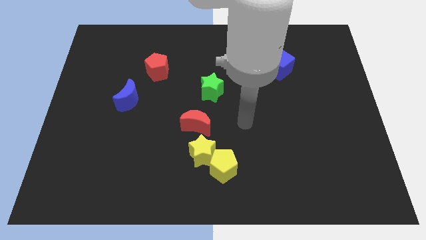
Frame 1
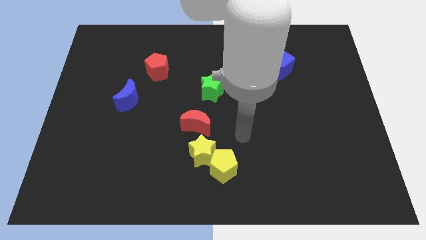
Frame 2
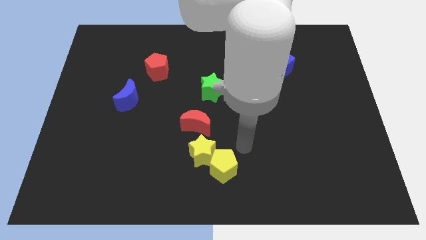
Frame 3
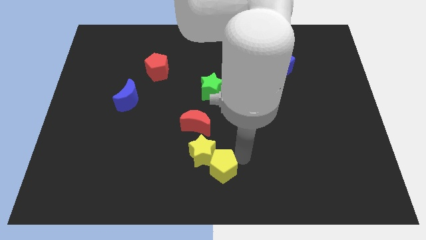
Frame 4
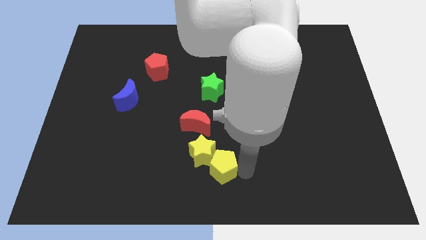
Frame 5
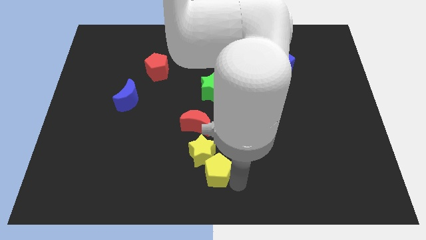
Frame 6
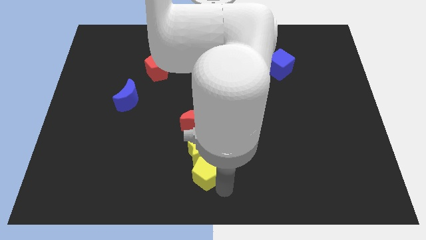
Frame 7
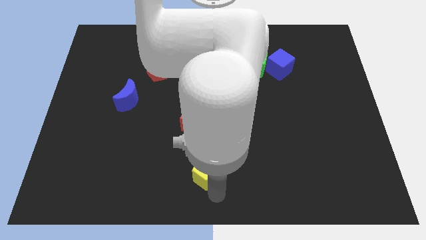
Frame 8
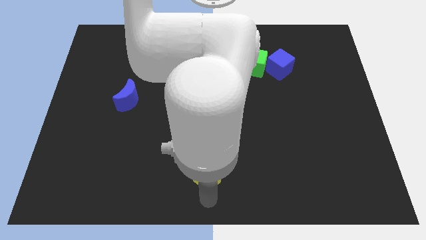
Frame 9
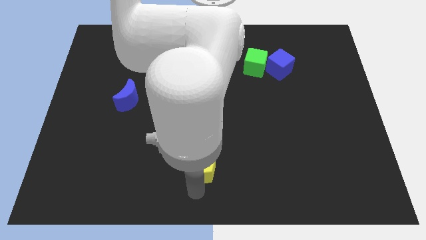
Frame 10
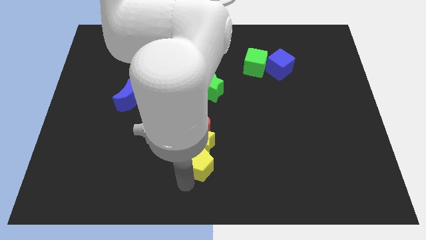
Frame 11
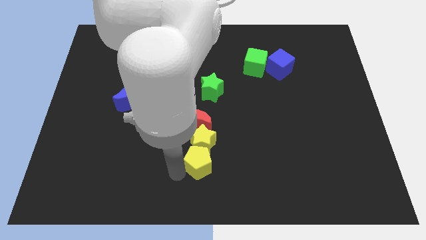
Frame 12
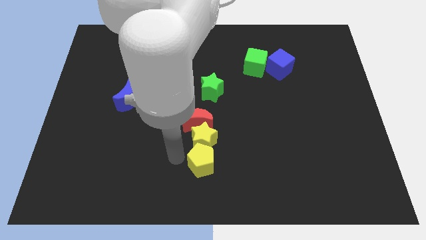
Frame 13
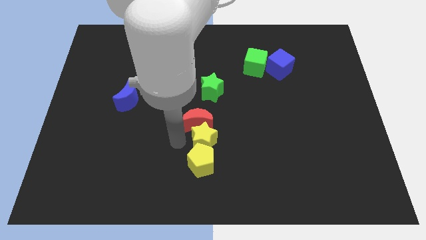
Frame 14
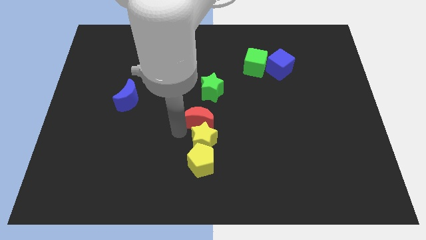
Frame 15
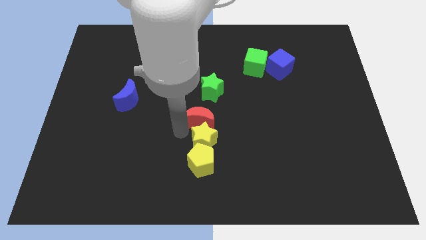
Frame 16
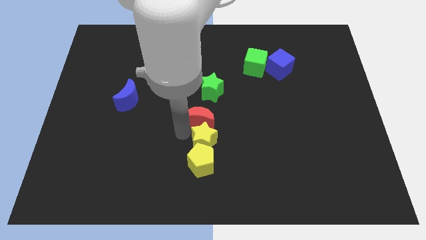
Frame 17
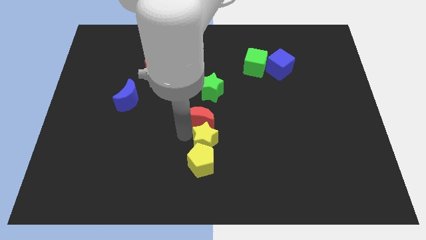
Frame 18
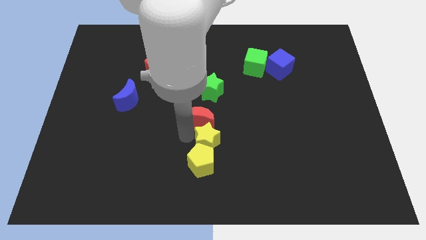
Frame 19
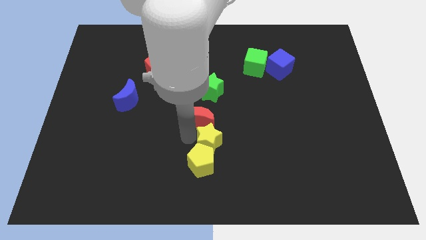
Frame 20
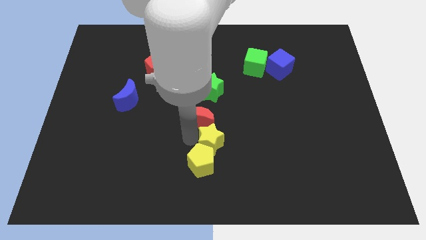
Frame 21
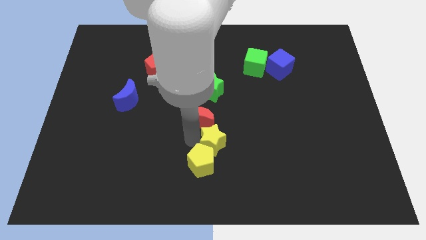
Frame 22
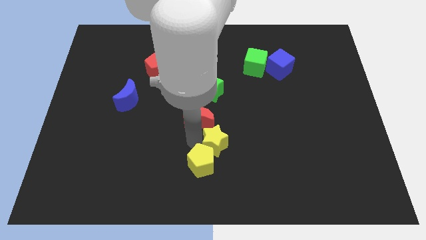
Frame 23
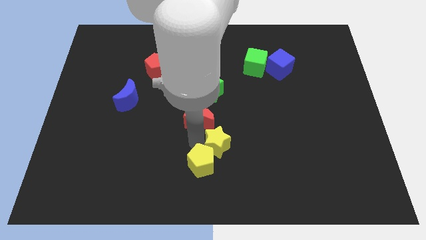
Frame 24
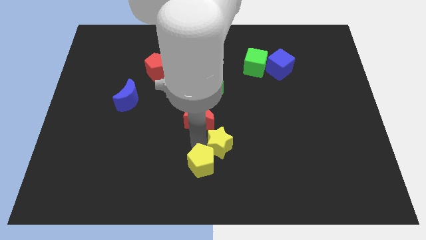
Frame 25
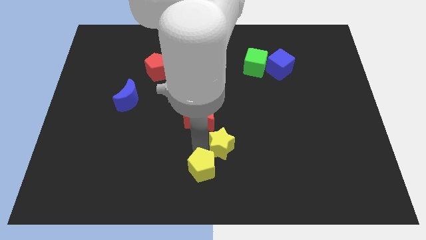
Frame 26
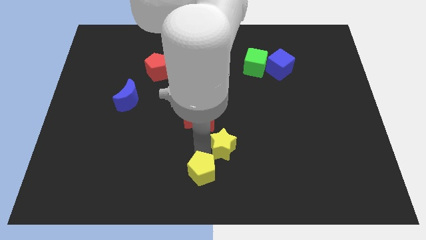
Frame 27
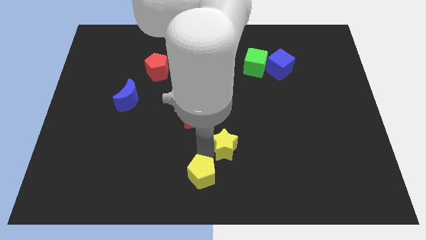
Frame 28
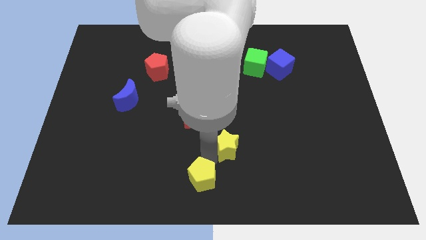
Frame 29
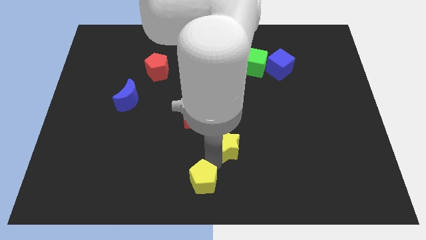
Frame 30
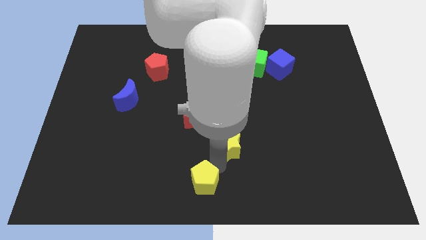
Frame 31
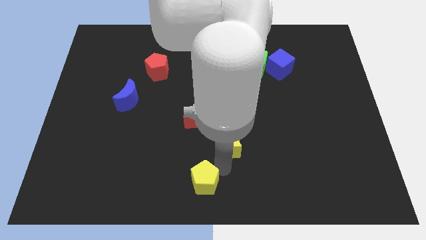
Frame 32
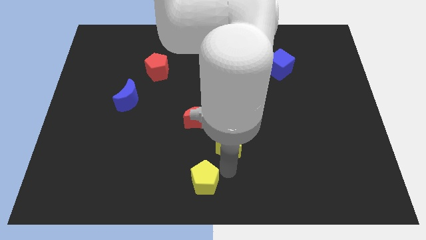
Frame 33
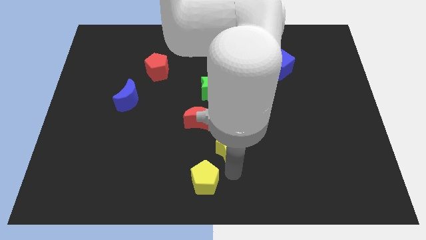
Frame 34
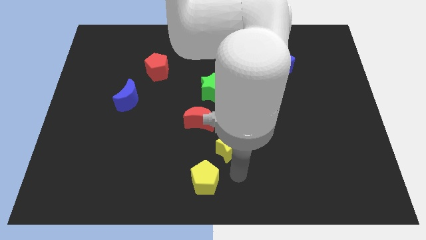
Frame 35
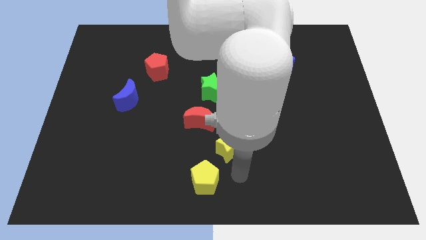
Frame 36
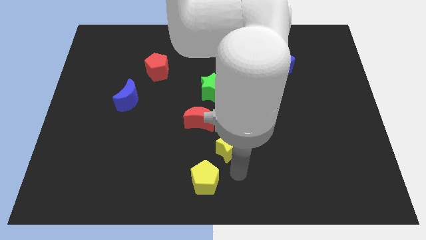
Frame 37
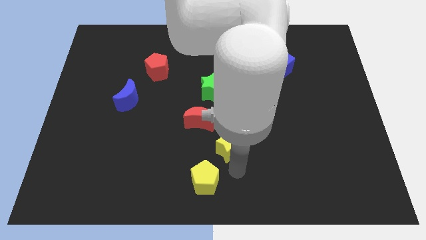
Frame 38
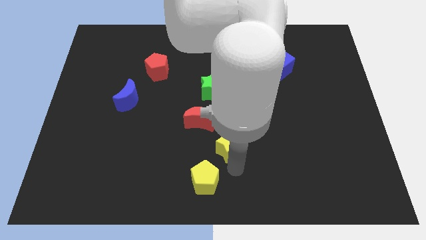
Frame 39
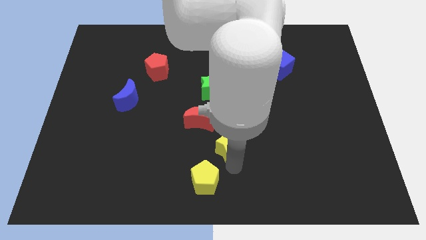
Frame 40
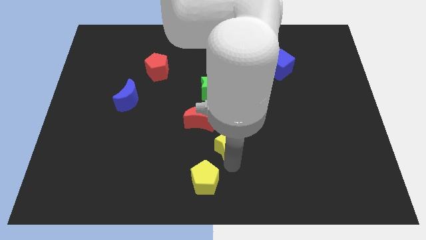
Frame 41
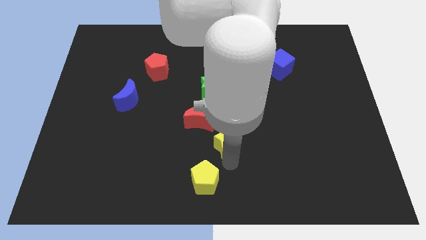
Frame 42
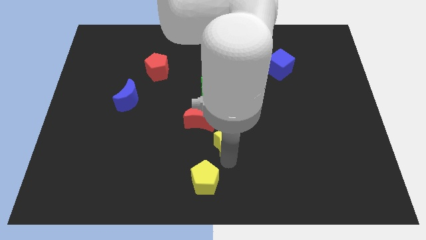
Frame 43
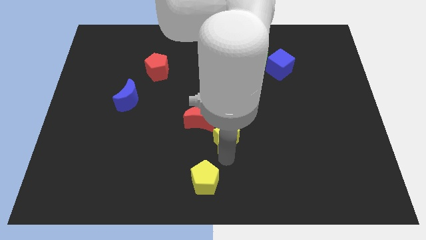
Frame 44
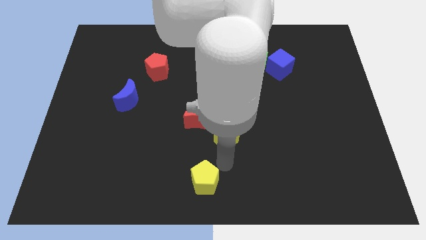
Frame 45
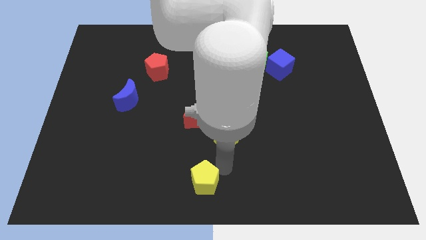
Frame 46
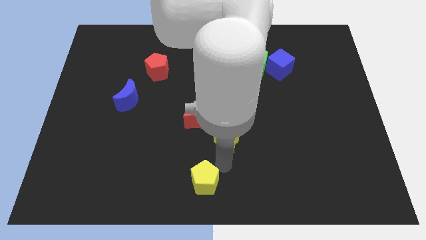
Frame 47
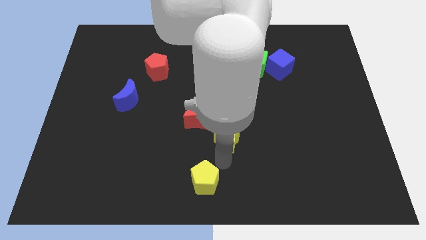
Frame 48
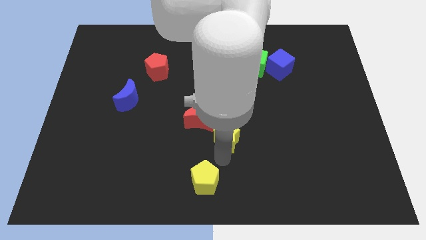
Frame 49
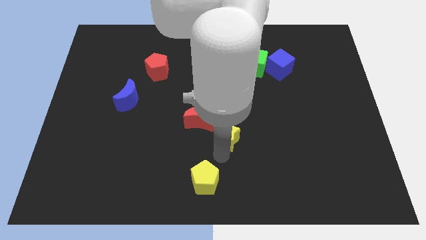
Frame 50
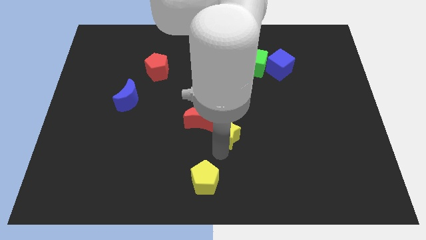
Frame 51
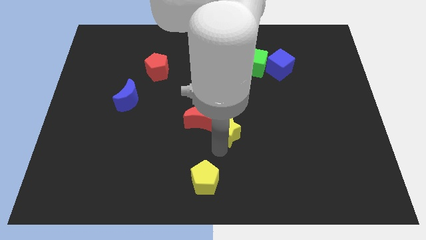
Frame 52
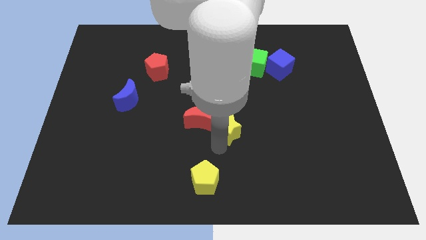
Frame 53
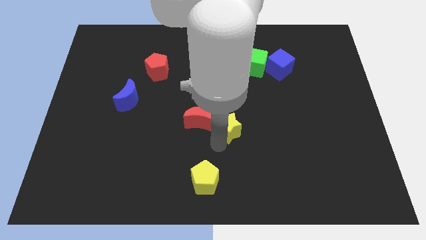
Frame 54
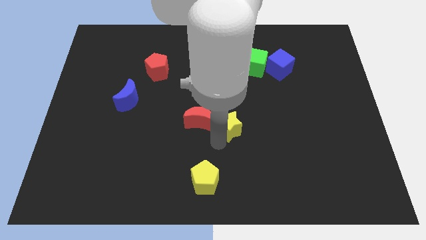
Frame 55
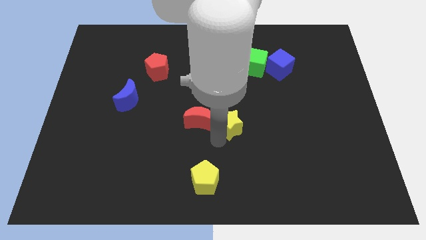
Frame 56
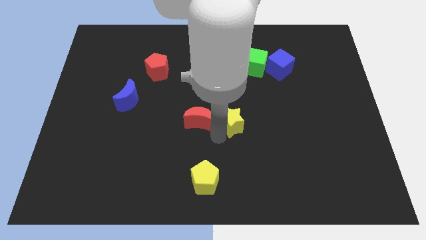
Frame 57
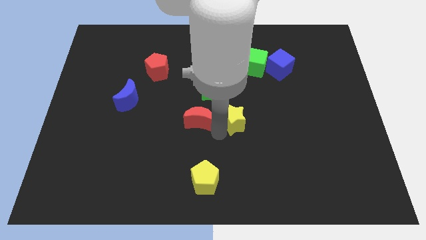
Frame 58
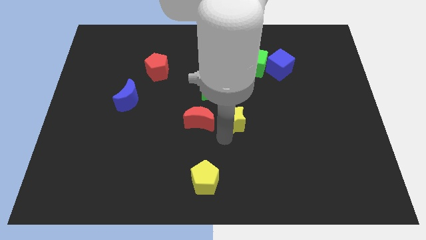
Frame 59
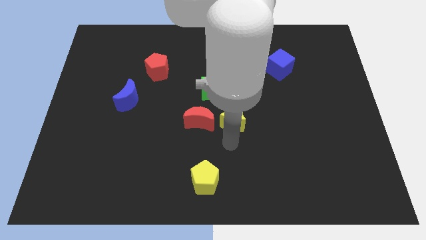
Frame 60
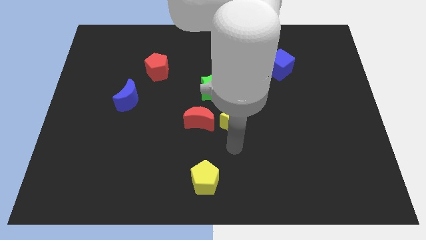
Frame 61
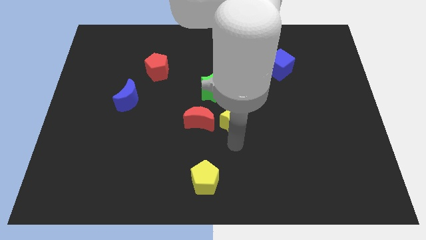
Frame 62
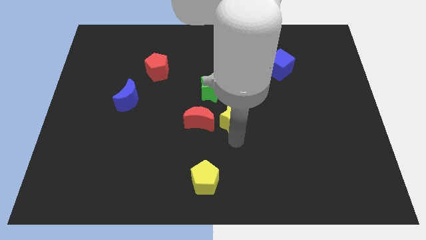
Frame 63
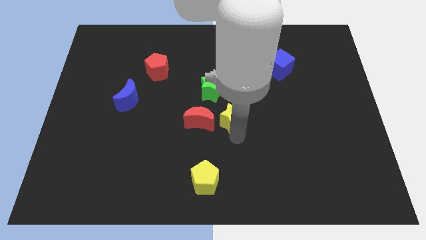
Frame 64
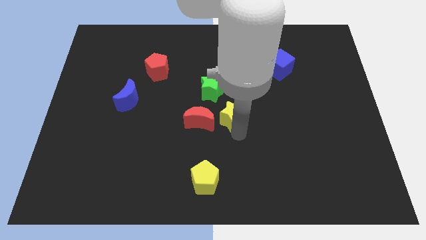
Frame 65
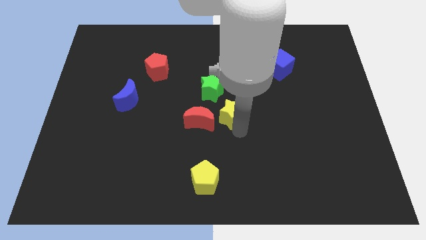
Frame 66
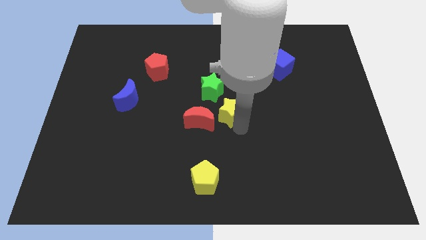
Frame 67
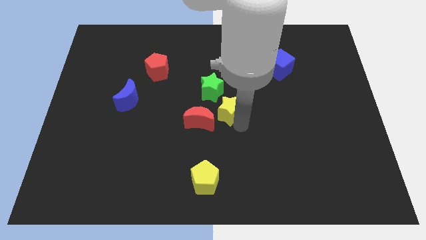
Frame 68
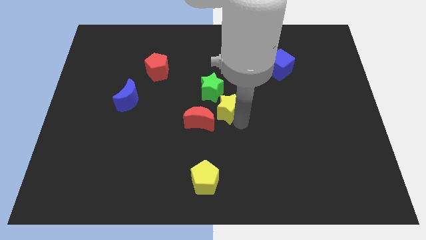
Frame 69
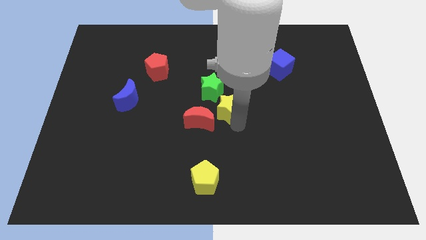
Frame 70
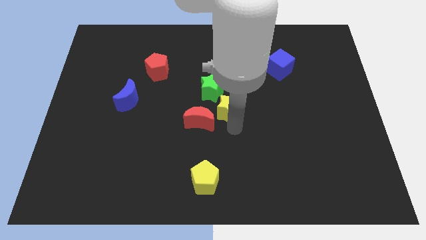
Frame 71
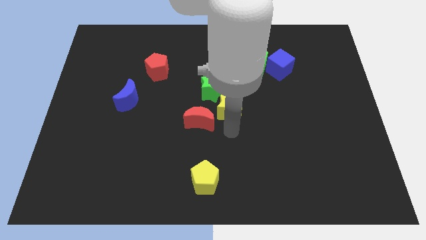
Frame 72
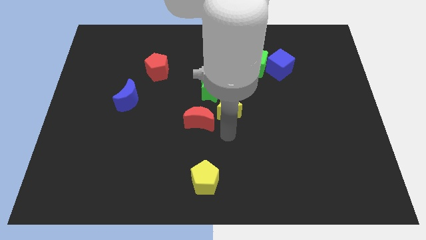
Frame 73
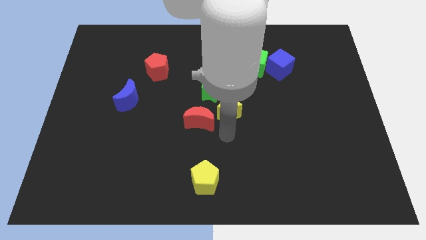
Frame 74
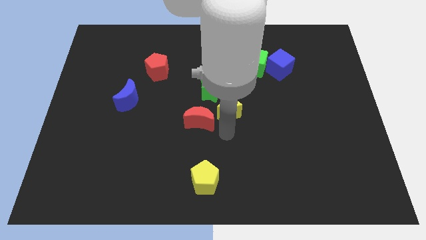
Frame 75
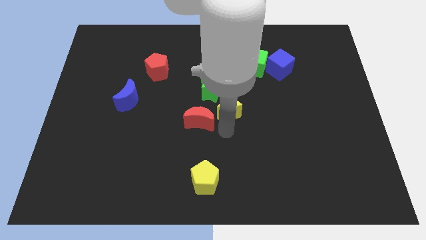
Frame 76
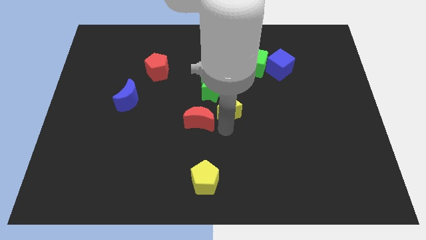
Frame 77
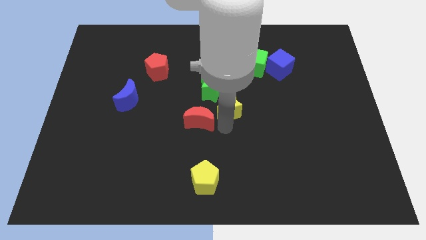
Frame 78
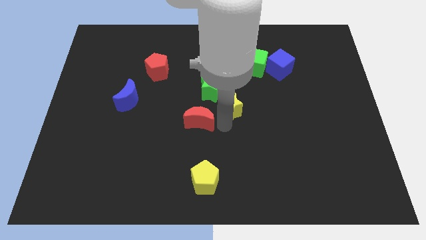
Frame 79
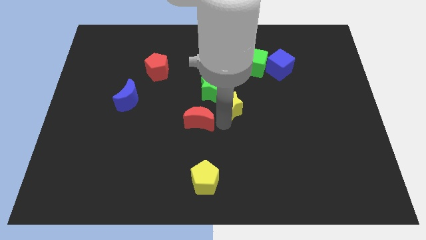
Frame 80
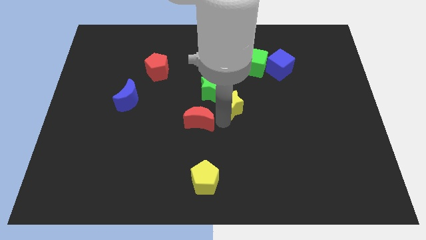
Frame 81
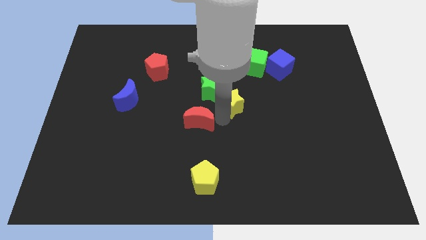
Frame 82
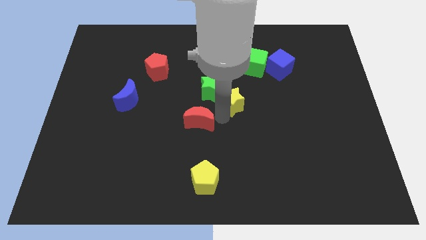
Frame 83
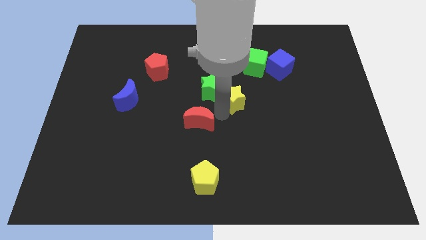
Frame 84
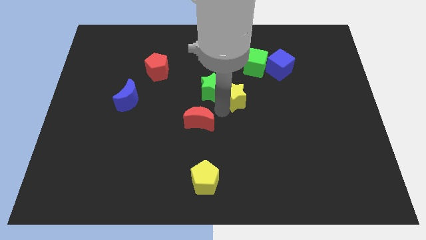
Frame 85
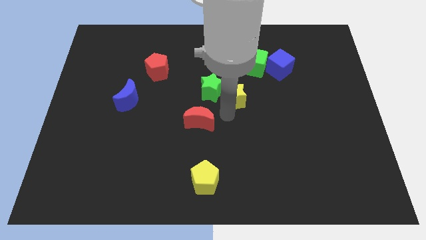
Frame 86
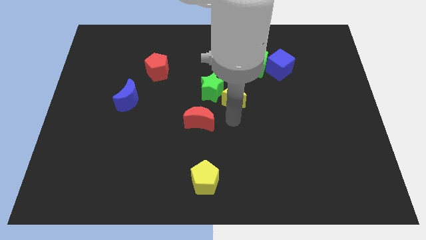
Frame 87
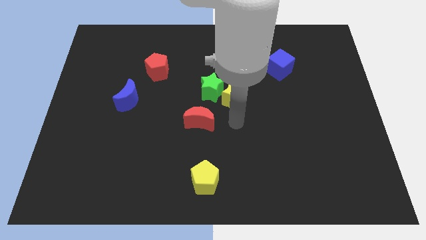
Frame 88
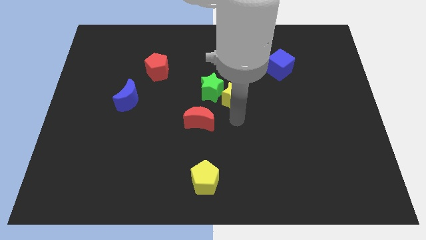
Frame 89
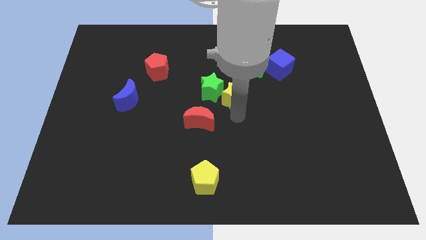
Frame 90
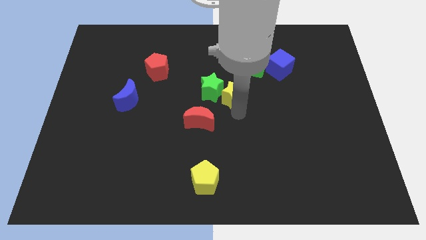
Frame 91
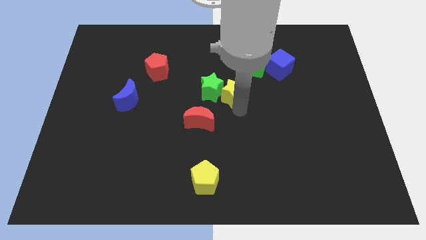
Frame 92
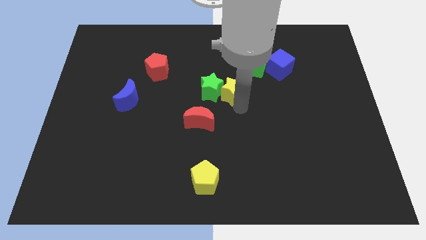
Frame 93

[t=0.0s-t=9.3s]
move the yellow star to the top right of the green star
